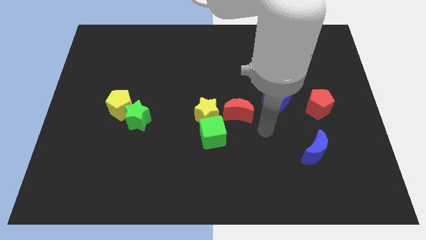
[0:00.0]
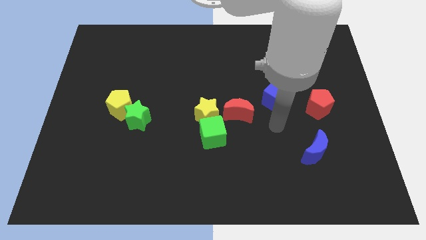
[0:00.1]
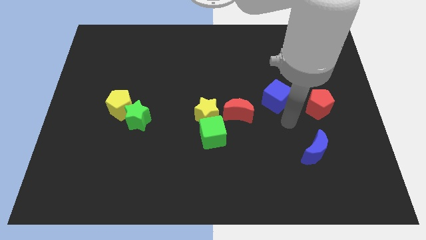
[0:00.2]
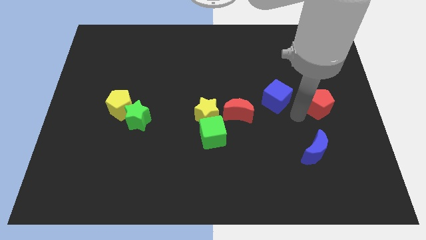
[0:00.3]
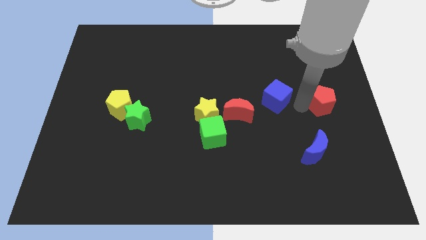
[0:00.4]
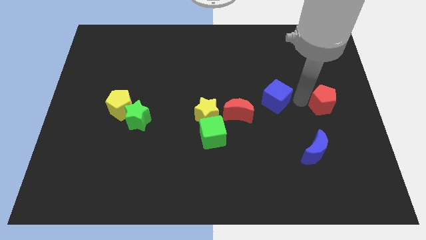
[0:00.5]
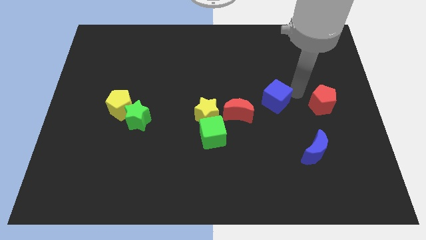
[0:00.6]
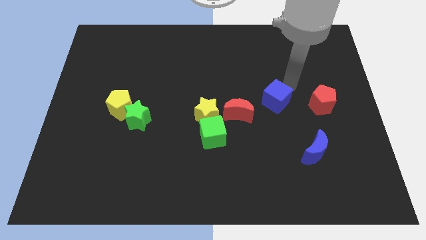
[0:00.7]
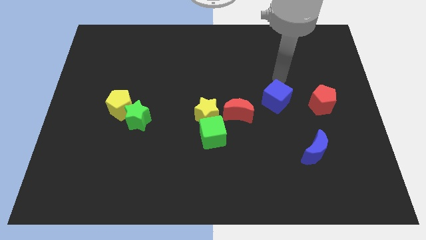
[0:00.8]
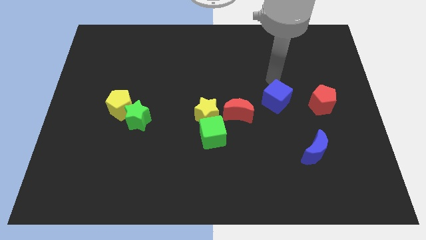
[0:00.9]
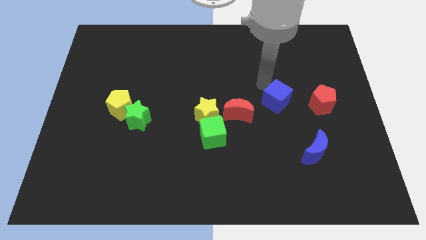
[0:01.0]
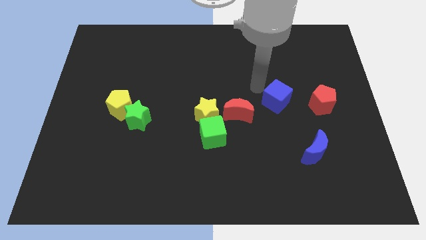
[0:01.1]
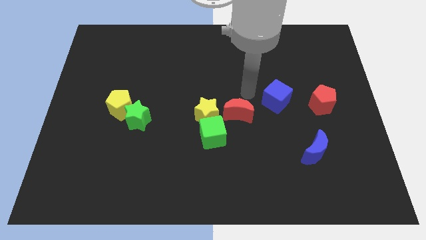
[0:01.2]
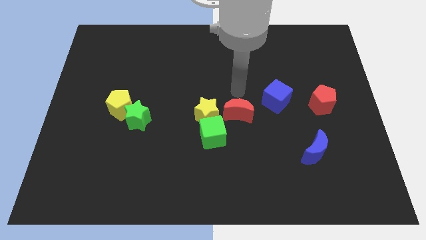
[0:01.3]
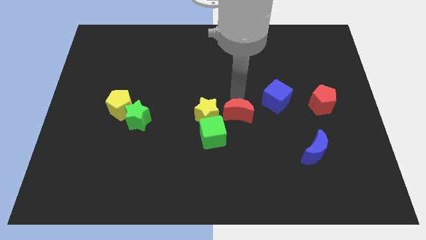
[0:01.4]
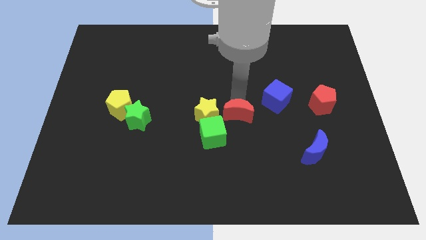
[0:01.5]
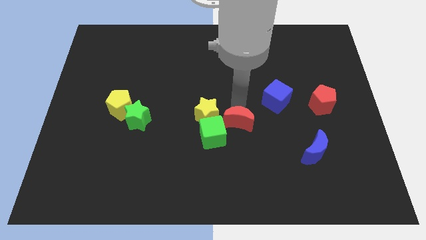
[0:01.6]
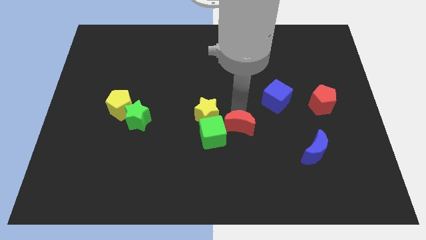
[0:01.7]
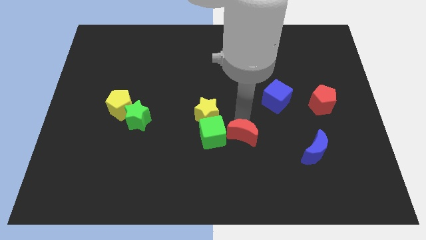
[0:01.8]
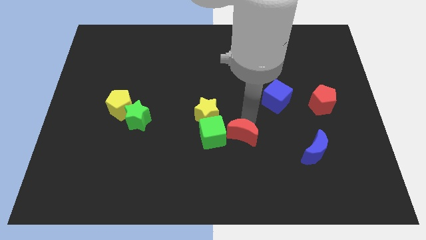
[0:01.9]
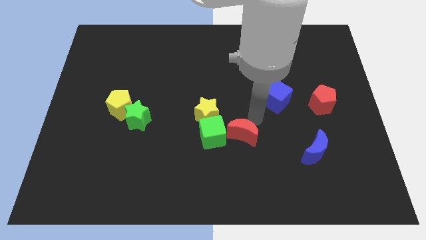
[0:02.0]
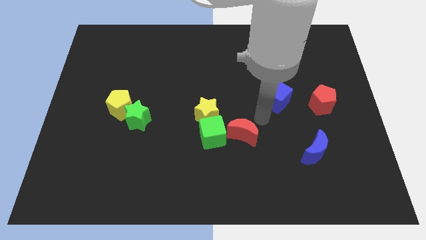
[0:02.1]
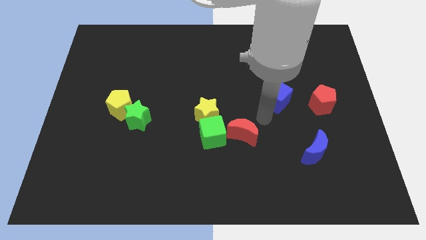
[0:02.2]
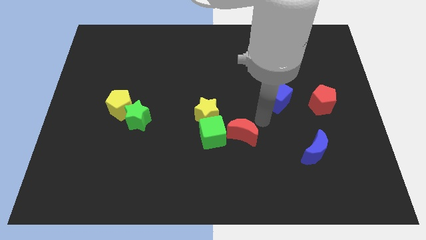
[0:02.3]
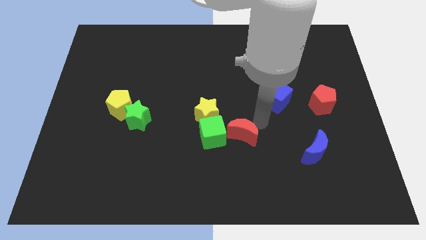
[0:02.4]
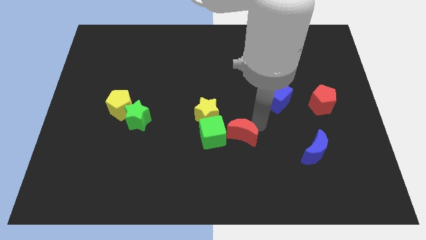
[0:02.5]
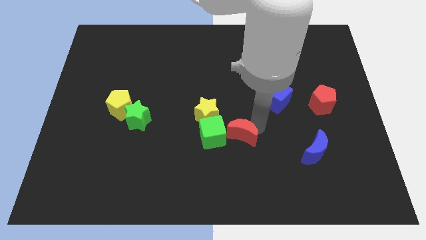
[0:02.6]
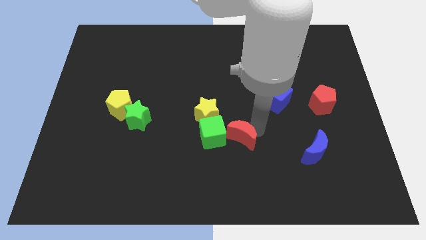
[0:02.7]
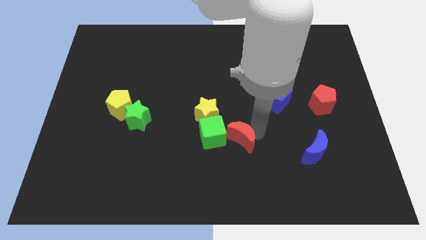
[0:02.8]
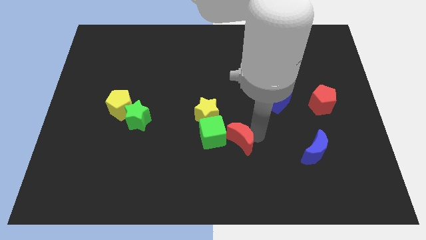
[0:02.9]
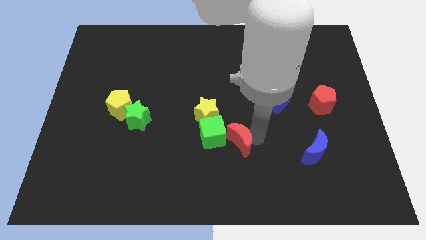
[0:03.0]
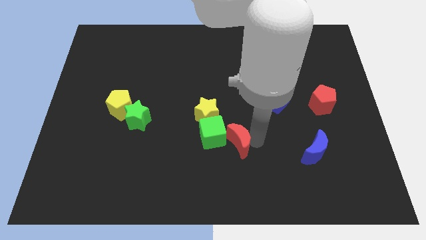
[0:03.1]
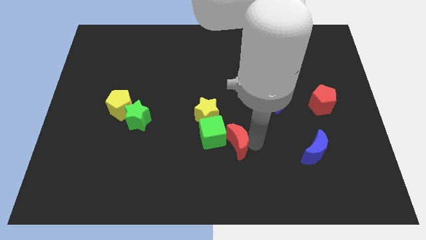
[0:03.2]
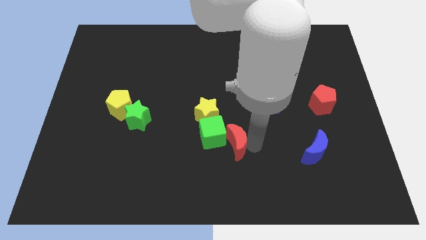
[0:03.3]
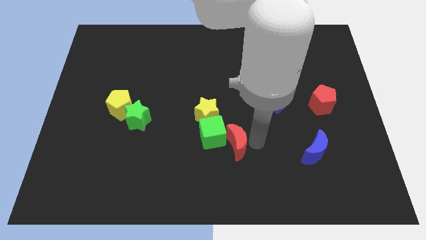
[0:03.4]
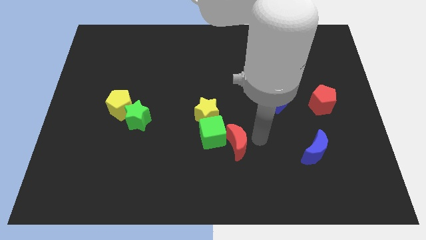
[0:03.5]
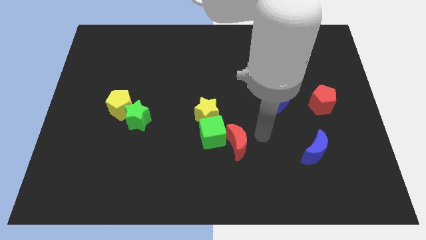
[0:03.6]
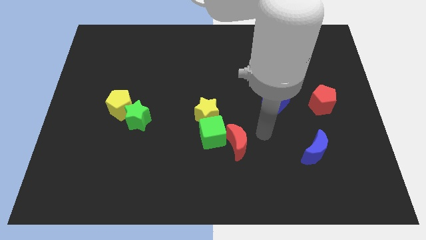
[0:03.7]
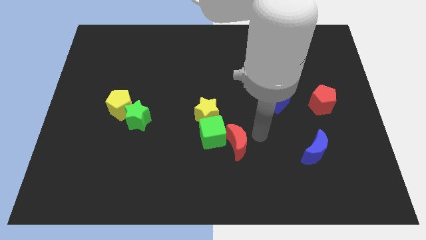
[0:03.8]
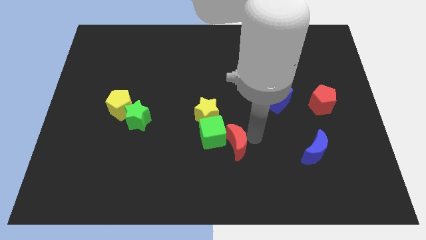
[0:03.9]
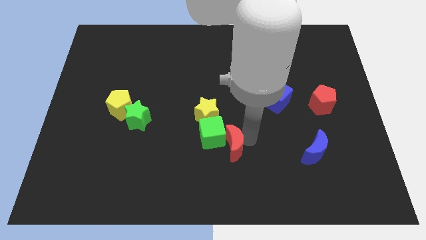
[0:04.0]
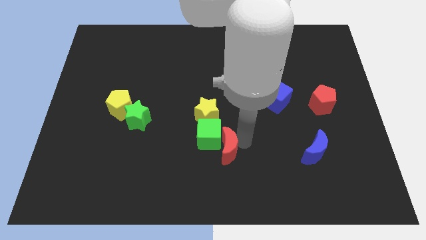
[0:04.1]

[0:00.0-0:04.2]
move the red moon a little diagonally downwards and left

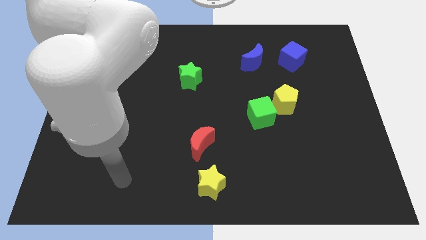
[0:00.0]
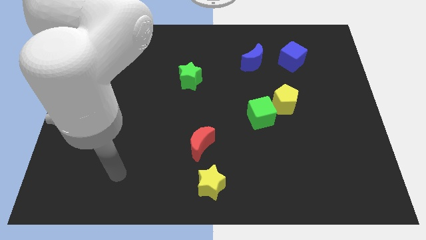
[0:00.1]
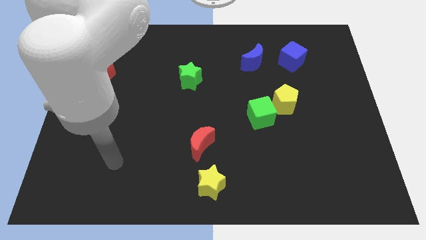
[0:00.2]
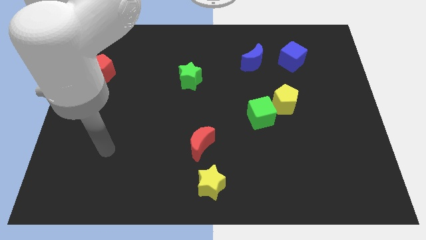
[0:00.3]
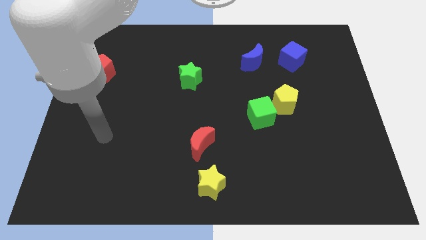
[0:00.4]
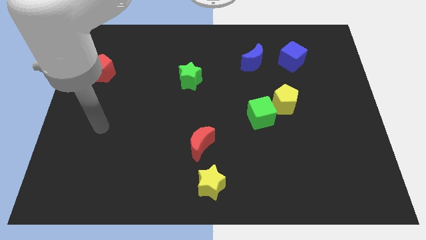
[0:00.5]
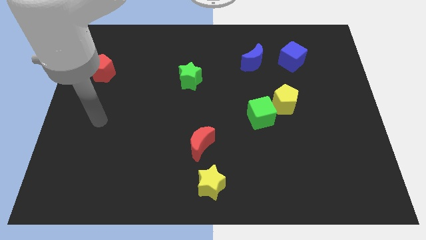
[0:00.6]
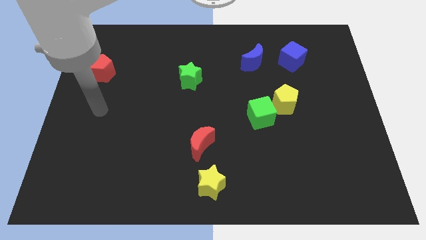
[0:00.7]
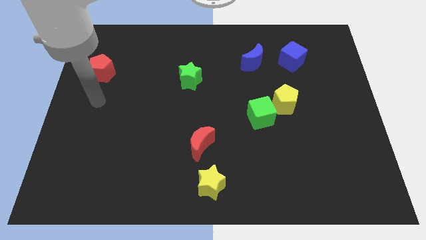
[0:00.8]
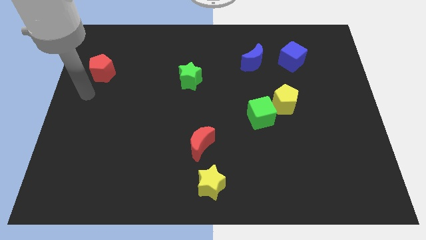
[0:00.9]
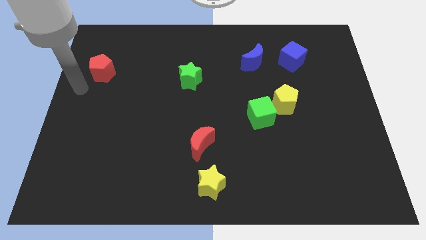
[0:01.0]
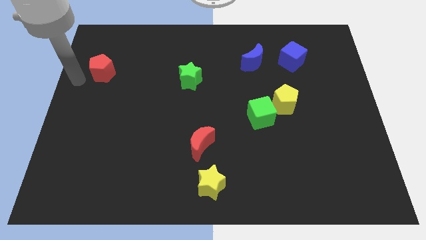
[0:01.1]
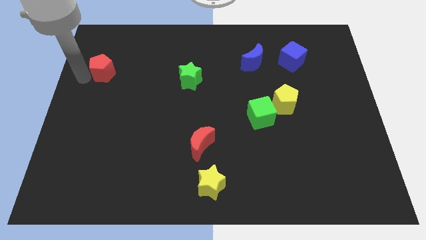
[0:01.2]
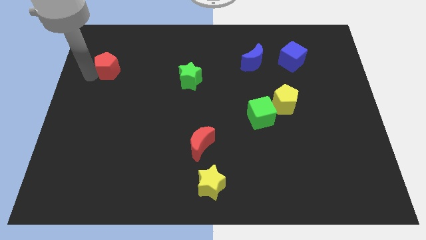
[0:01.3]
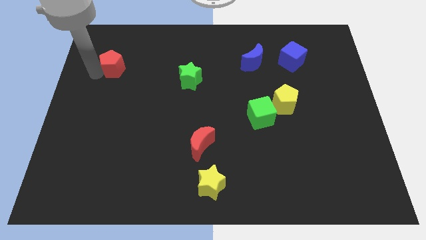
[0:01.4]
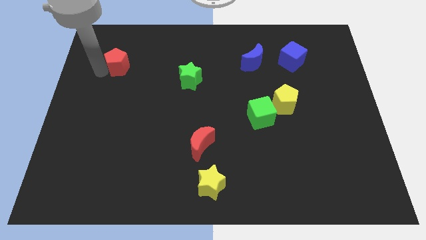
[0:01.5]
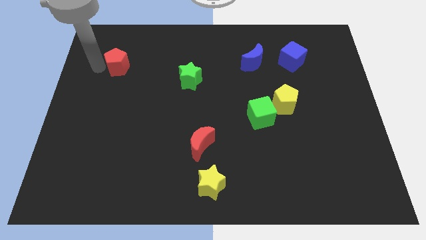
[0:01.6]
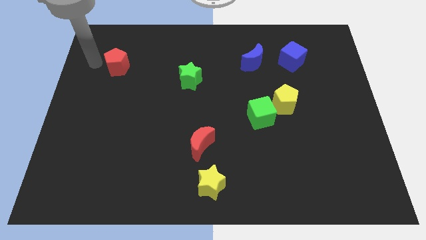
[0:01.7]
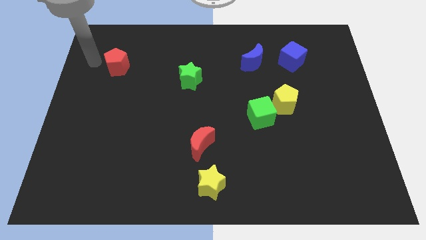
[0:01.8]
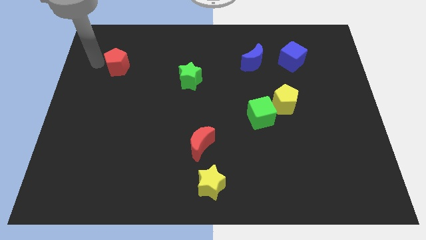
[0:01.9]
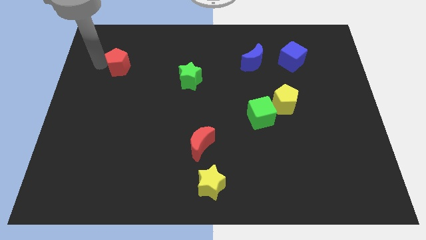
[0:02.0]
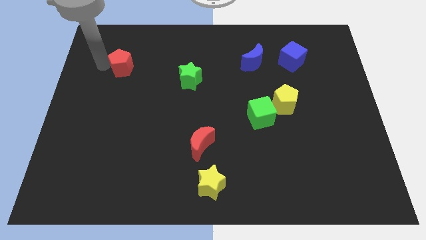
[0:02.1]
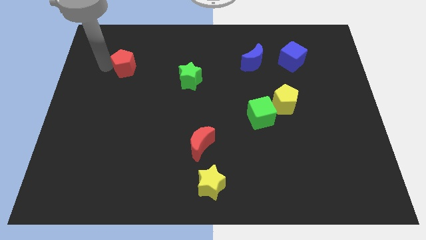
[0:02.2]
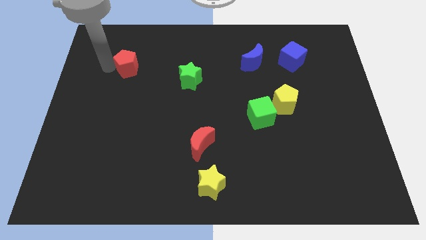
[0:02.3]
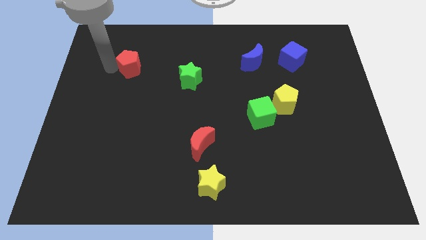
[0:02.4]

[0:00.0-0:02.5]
move the red pentagon right a little bit

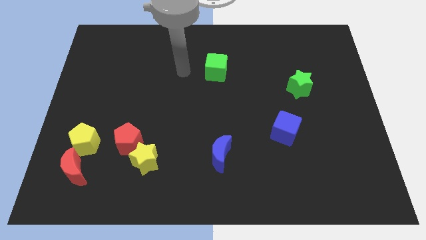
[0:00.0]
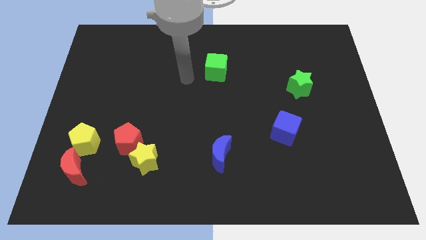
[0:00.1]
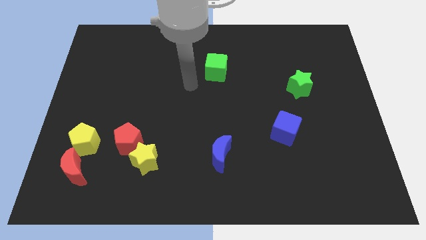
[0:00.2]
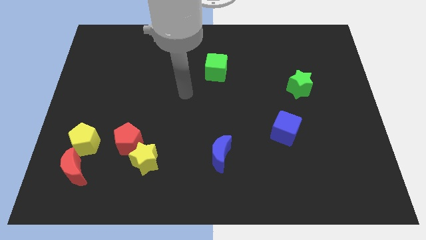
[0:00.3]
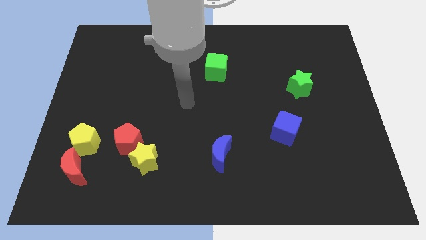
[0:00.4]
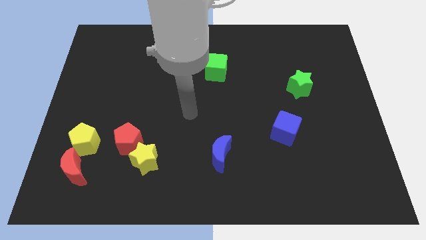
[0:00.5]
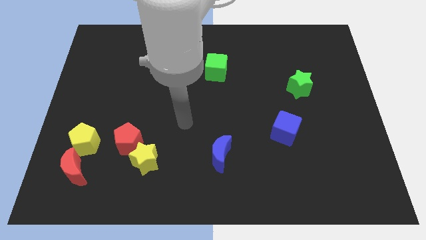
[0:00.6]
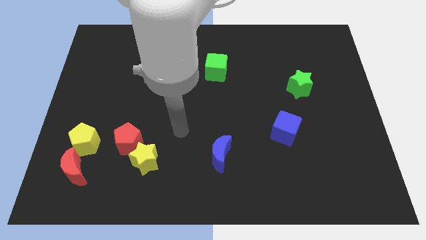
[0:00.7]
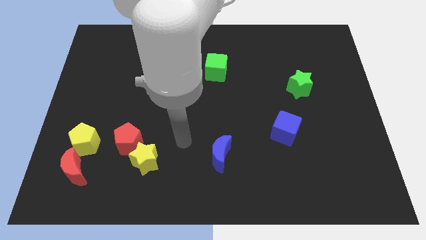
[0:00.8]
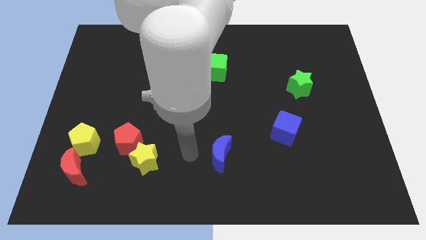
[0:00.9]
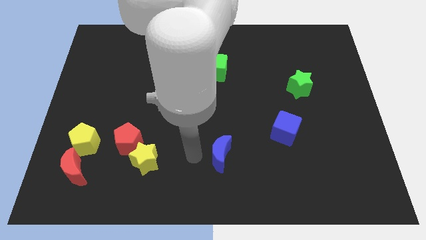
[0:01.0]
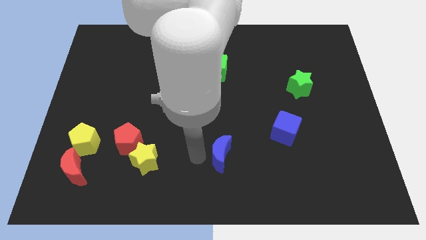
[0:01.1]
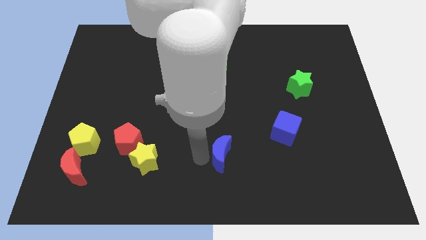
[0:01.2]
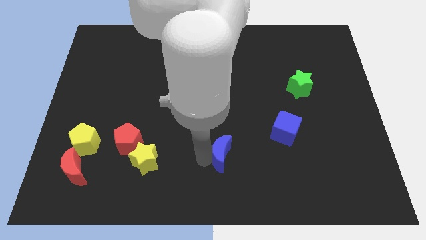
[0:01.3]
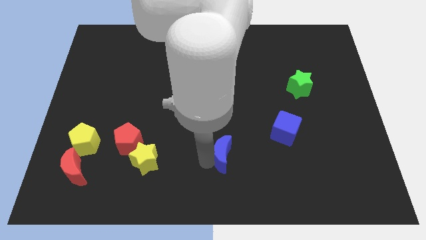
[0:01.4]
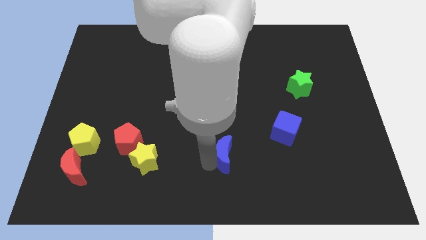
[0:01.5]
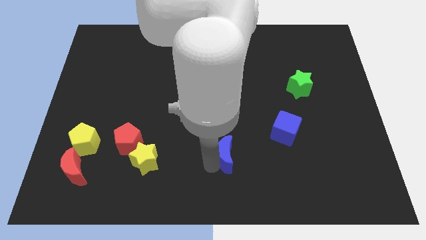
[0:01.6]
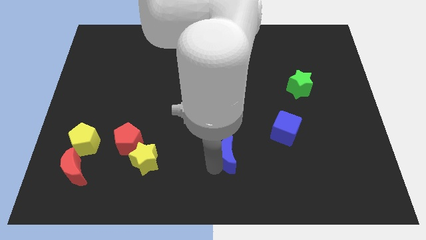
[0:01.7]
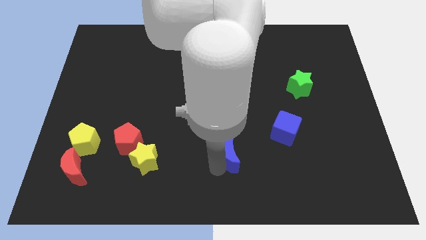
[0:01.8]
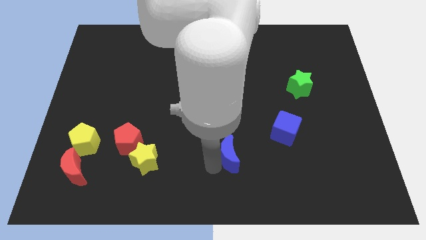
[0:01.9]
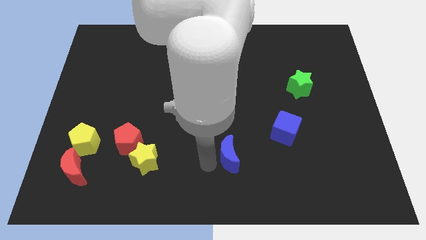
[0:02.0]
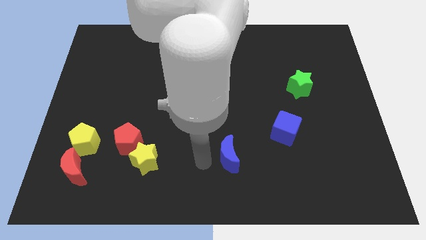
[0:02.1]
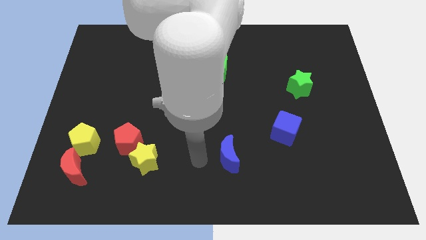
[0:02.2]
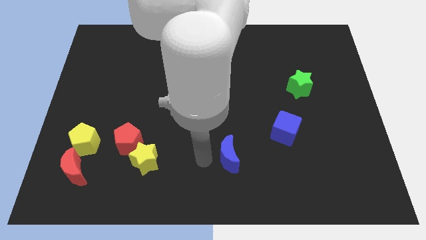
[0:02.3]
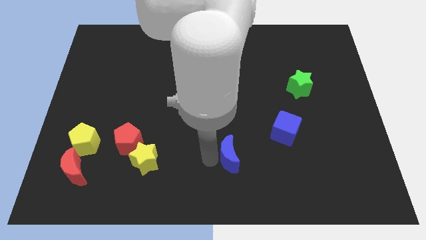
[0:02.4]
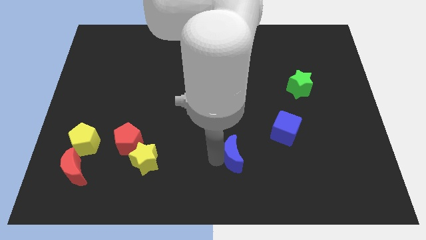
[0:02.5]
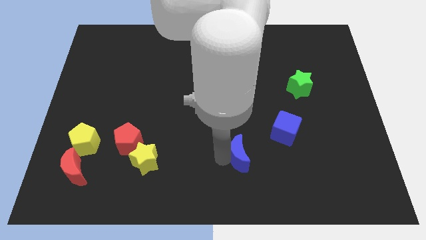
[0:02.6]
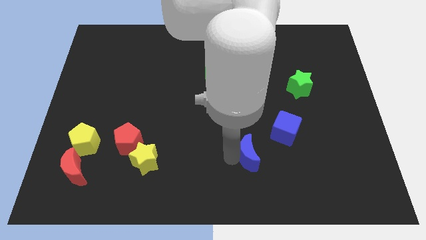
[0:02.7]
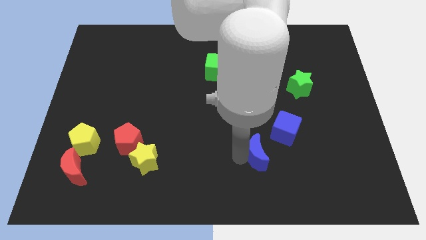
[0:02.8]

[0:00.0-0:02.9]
push the blue moon right slightly
